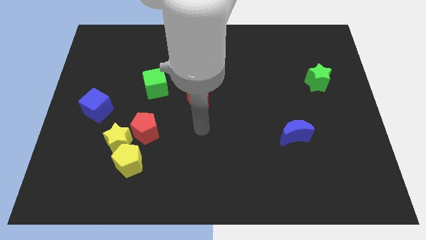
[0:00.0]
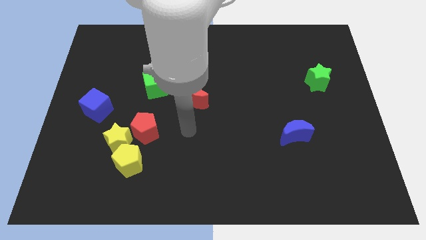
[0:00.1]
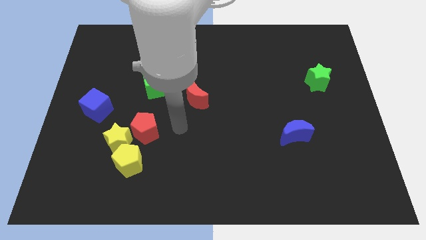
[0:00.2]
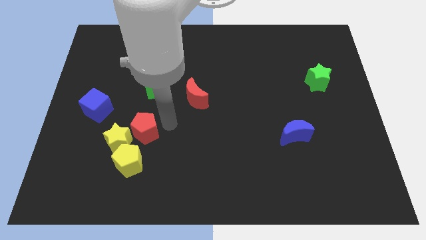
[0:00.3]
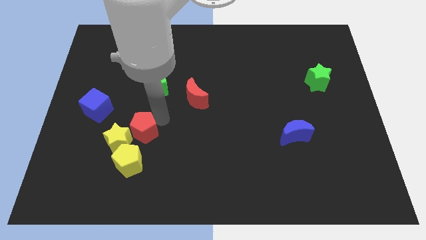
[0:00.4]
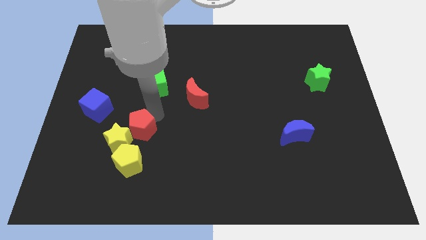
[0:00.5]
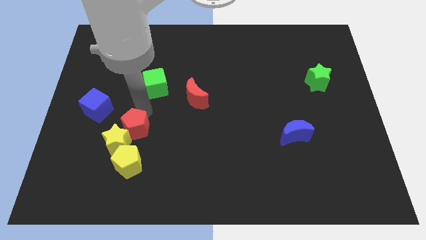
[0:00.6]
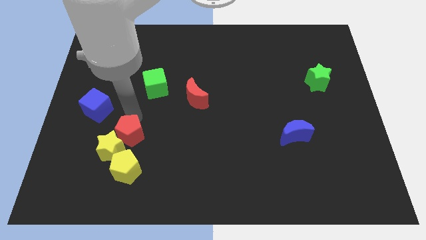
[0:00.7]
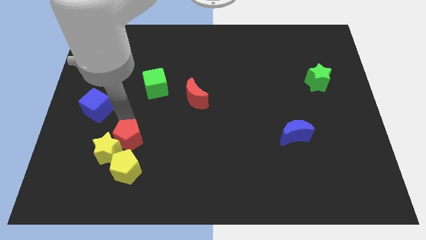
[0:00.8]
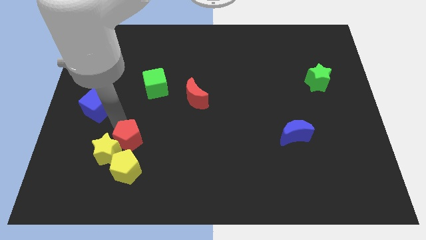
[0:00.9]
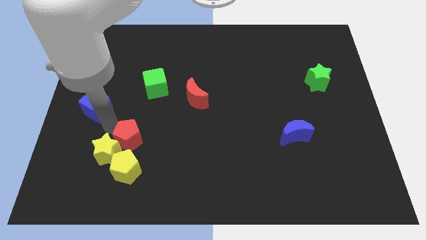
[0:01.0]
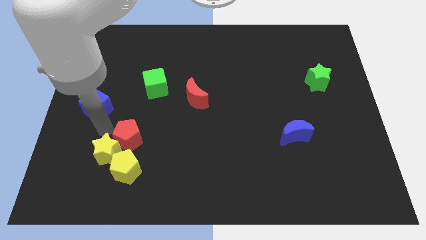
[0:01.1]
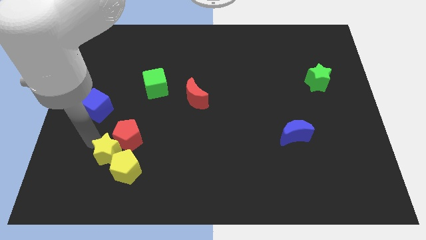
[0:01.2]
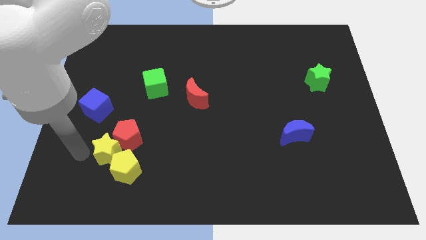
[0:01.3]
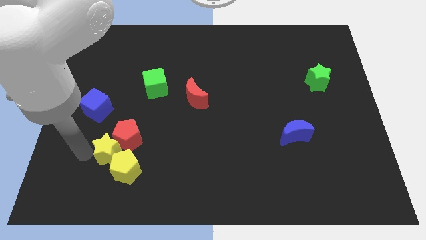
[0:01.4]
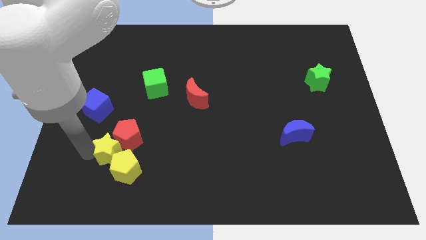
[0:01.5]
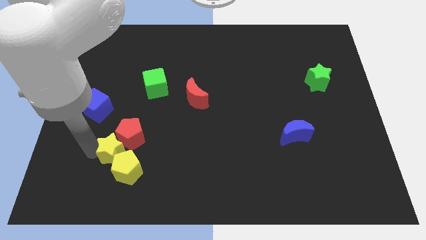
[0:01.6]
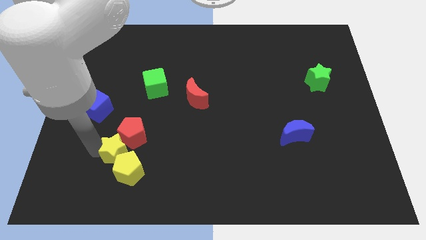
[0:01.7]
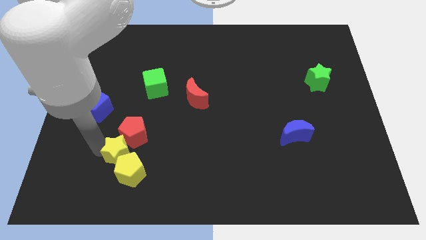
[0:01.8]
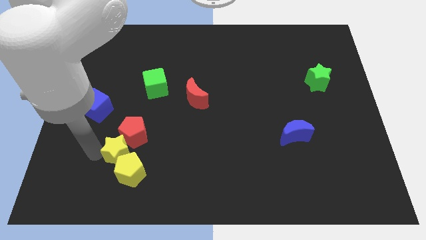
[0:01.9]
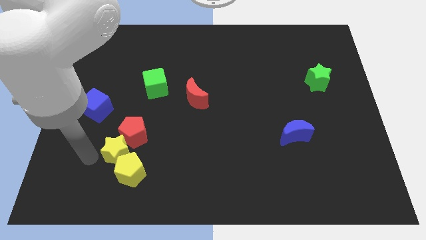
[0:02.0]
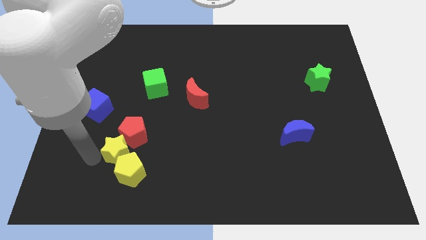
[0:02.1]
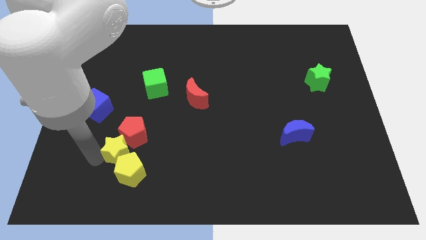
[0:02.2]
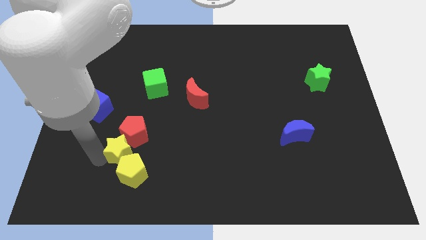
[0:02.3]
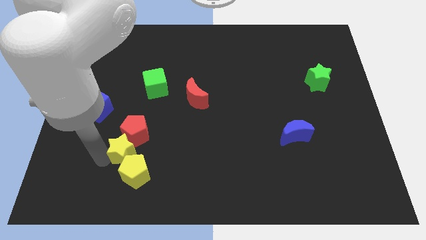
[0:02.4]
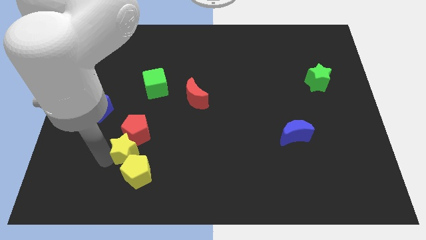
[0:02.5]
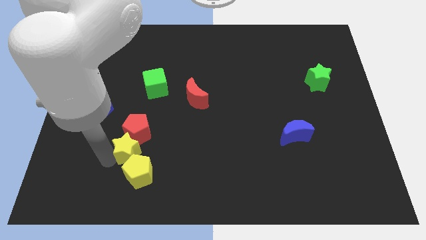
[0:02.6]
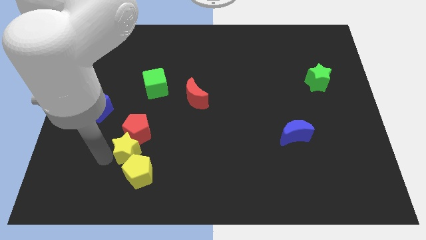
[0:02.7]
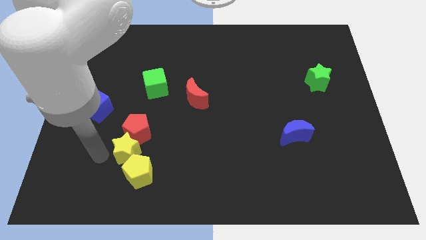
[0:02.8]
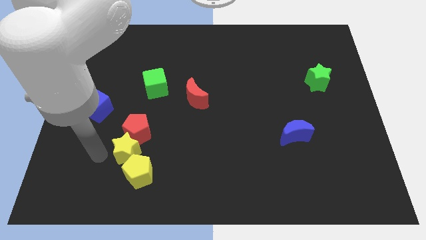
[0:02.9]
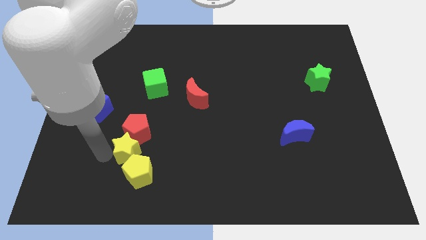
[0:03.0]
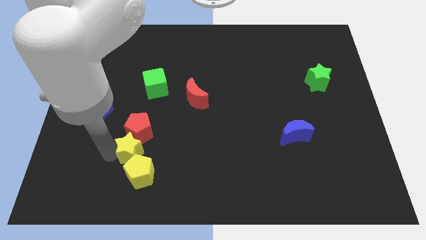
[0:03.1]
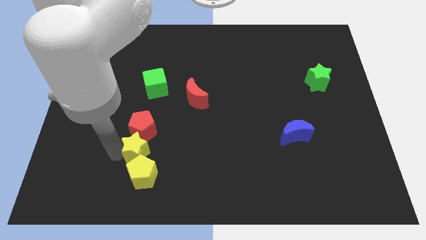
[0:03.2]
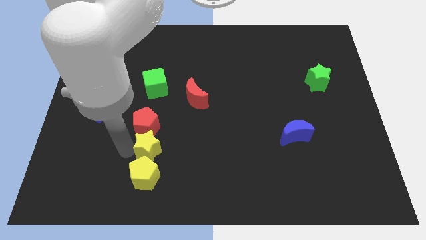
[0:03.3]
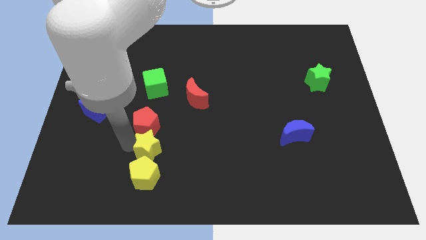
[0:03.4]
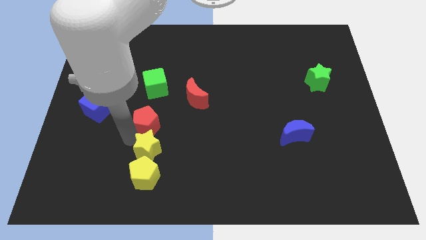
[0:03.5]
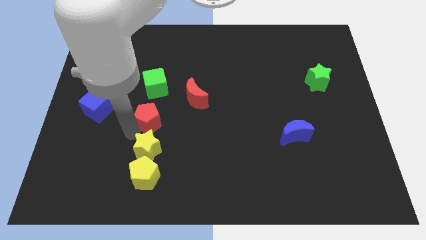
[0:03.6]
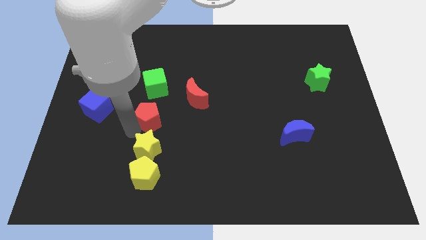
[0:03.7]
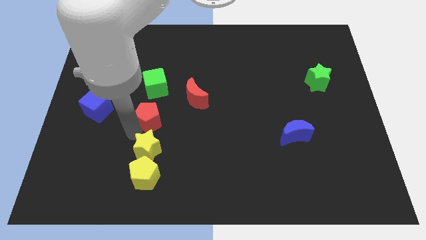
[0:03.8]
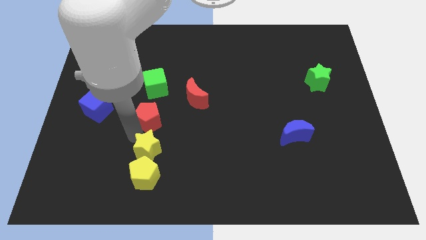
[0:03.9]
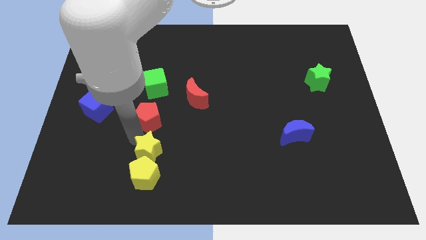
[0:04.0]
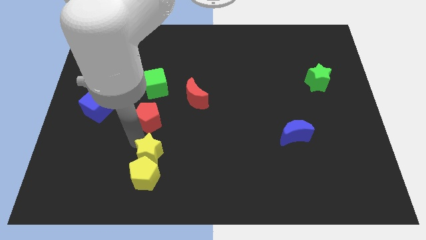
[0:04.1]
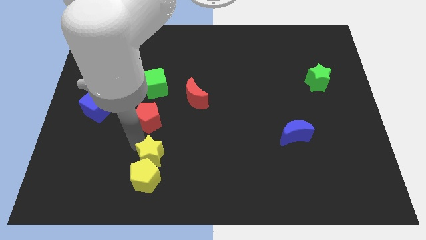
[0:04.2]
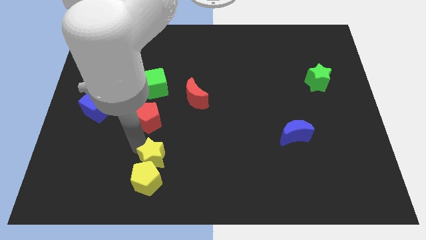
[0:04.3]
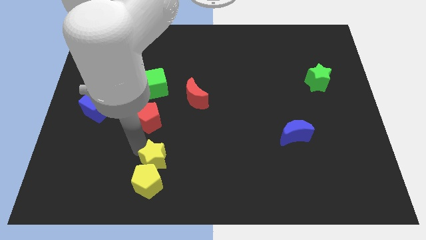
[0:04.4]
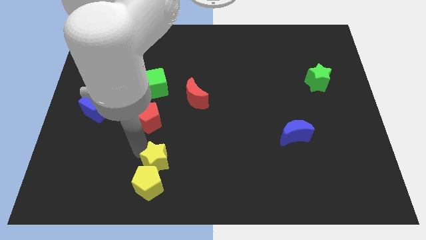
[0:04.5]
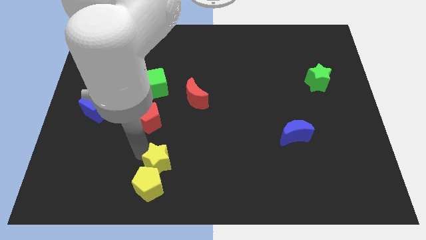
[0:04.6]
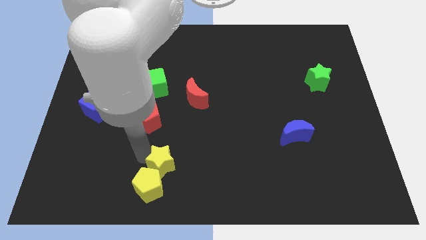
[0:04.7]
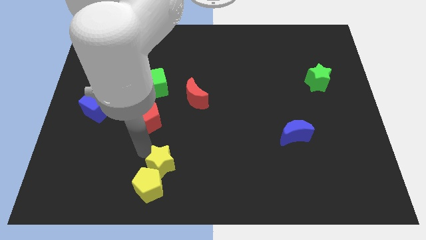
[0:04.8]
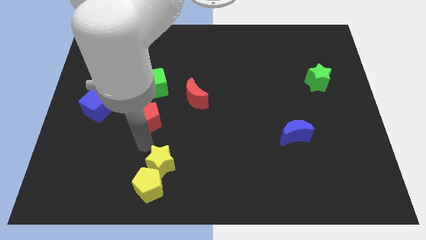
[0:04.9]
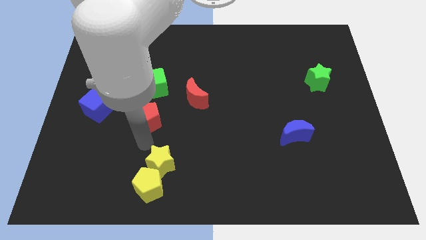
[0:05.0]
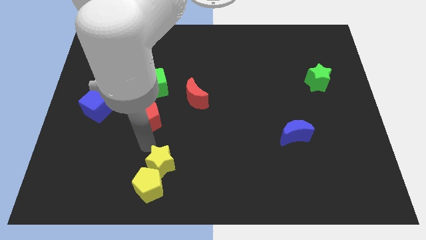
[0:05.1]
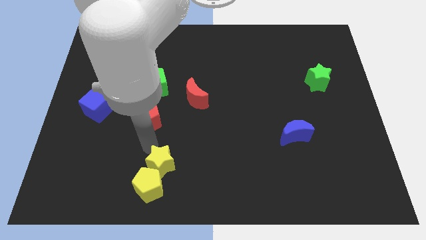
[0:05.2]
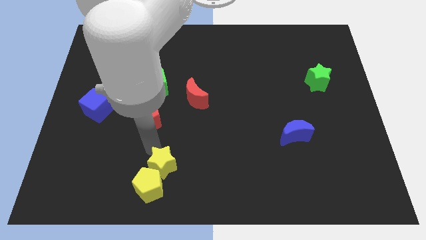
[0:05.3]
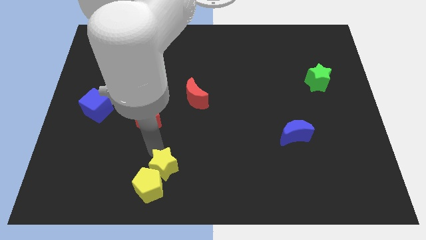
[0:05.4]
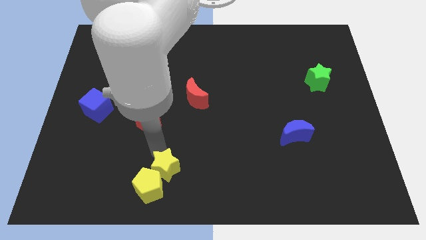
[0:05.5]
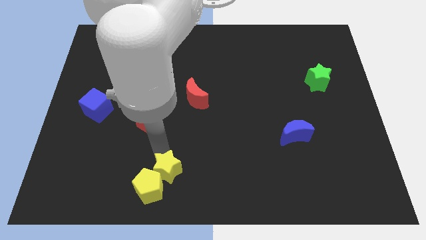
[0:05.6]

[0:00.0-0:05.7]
move the yellow star to the bottom side

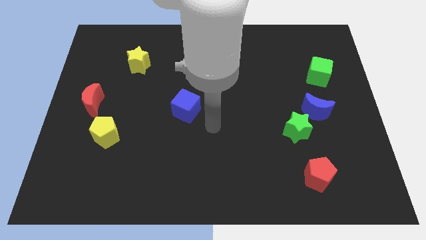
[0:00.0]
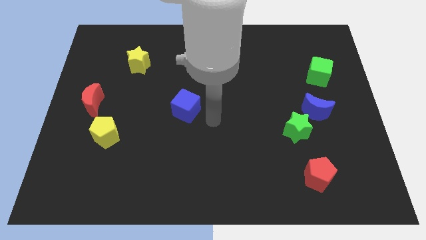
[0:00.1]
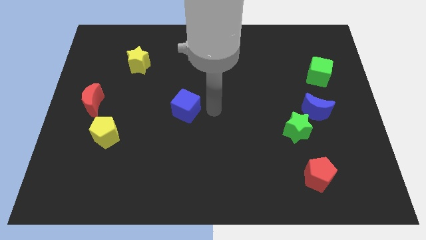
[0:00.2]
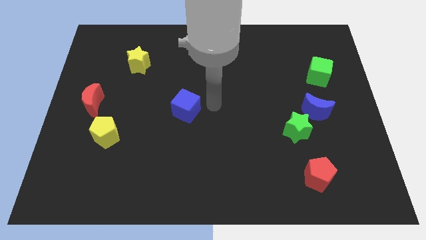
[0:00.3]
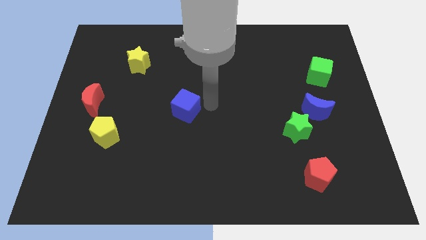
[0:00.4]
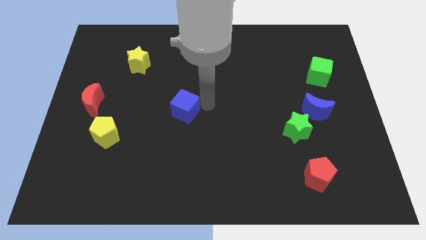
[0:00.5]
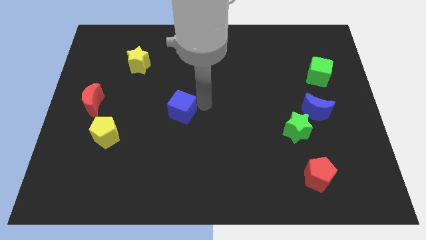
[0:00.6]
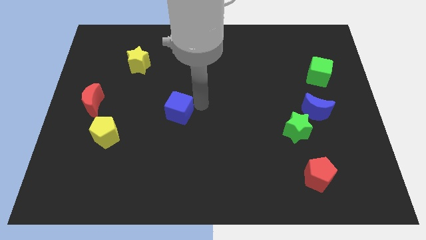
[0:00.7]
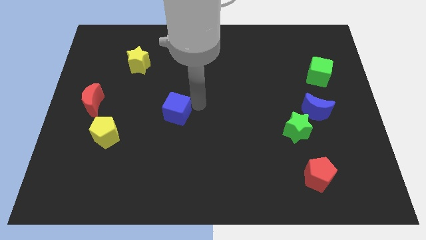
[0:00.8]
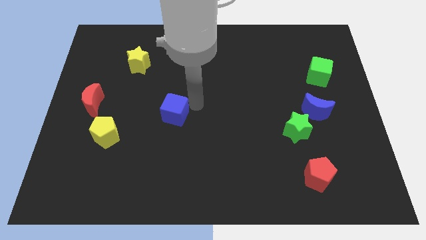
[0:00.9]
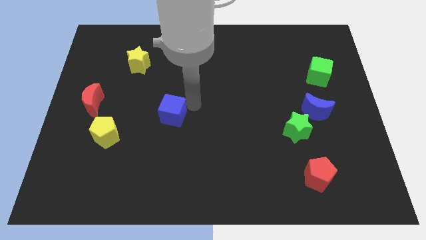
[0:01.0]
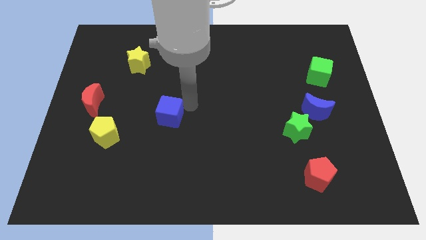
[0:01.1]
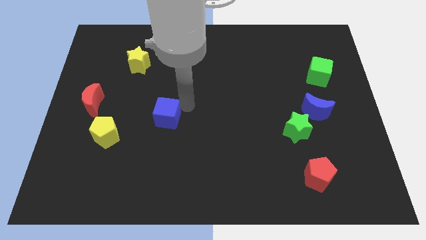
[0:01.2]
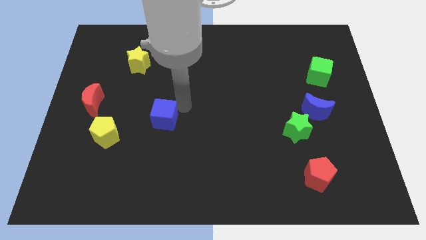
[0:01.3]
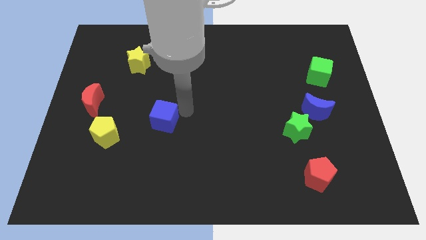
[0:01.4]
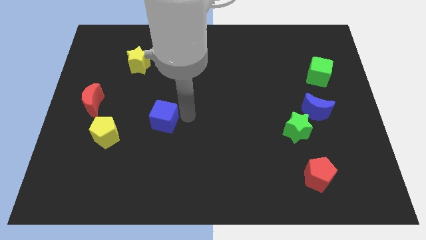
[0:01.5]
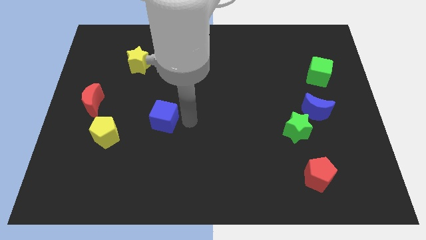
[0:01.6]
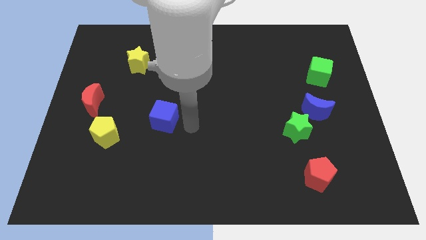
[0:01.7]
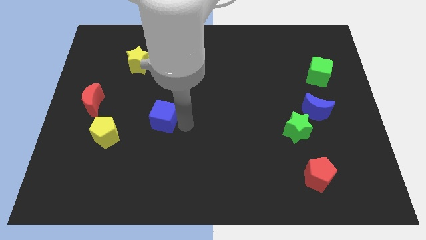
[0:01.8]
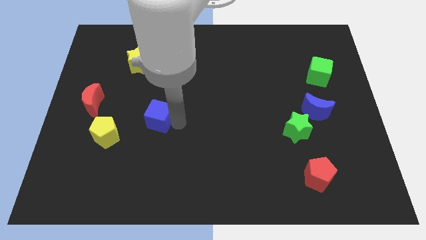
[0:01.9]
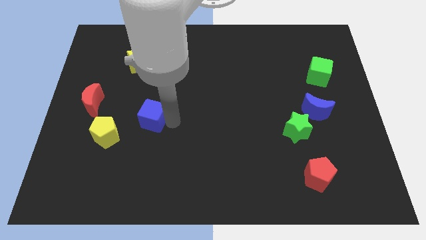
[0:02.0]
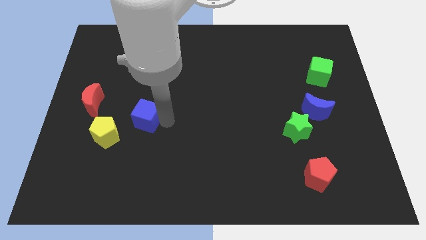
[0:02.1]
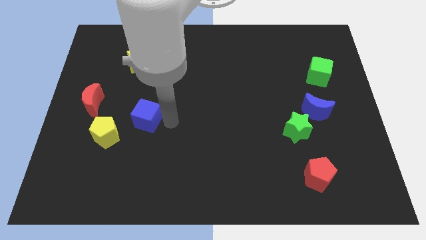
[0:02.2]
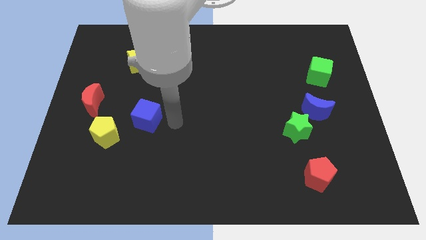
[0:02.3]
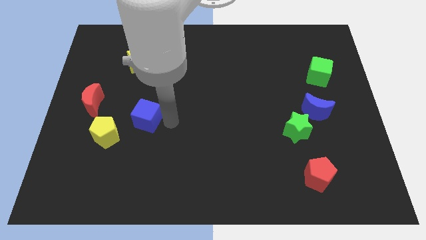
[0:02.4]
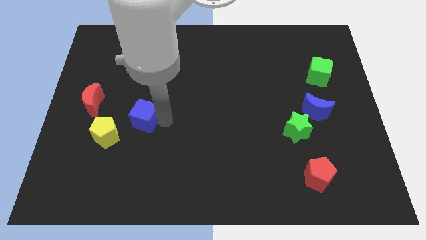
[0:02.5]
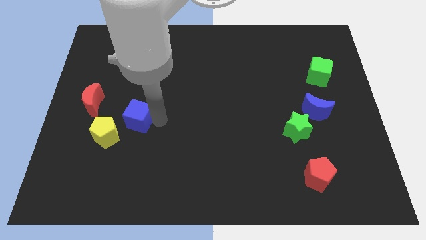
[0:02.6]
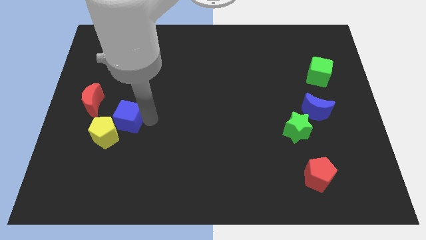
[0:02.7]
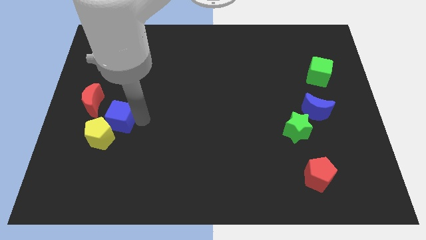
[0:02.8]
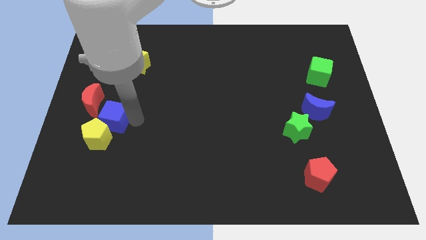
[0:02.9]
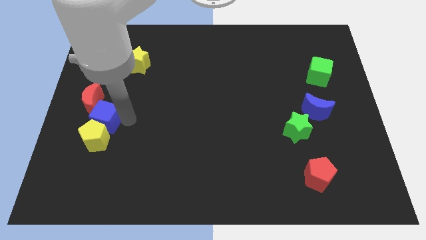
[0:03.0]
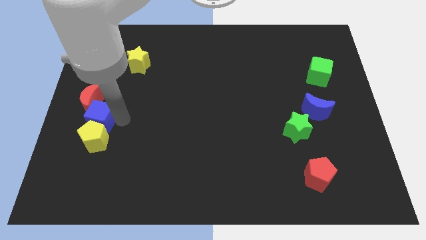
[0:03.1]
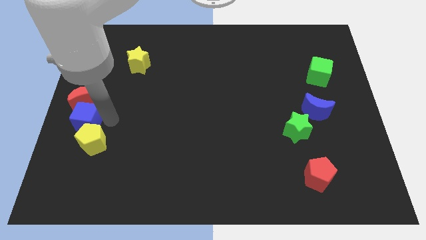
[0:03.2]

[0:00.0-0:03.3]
slide the blue cube to the left side
